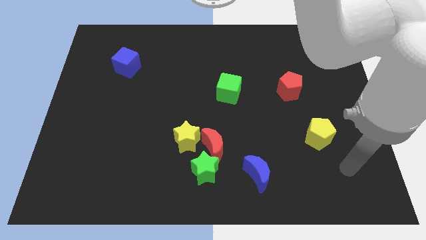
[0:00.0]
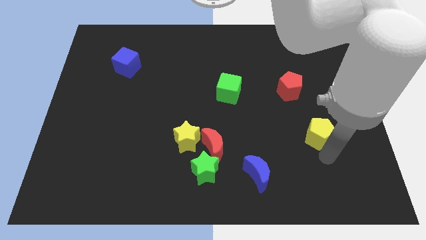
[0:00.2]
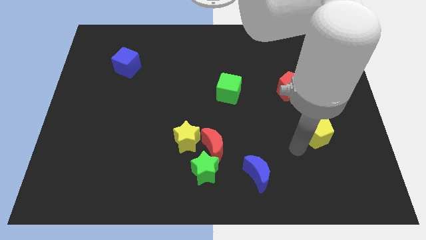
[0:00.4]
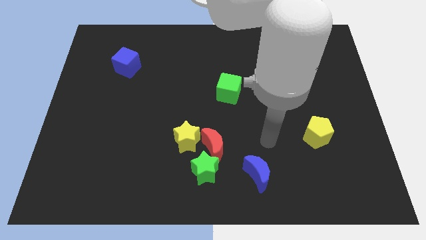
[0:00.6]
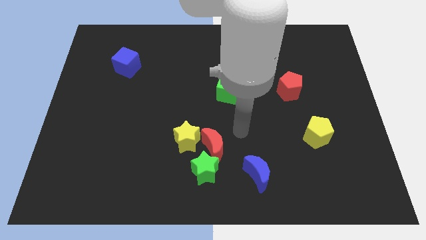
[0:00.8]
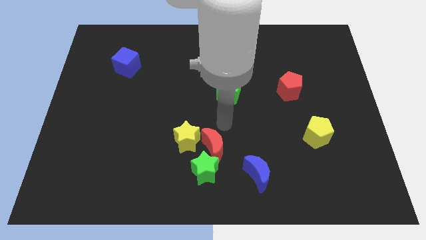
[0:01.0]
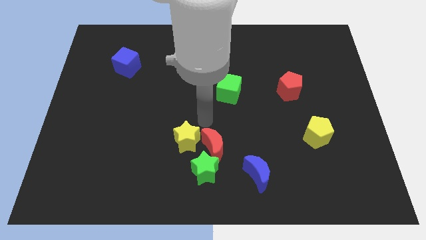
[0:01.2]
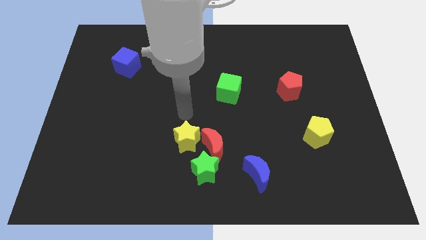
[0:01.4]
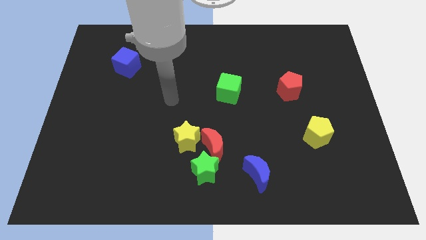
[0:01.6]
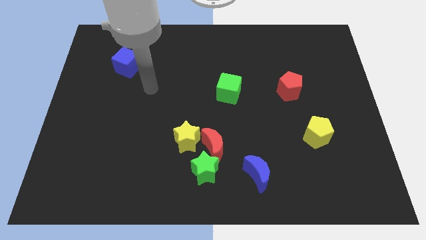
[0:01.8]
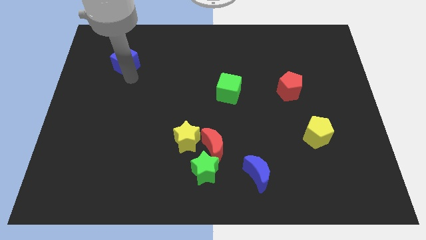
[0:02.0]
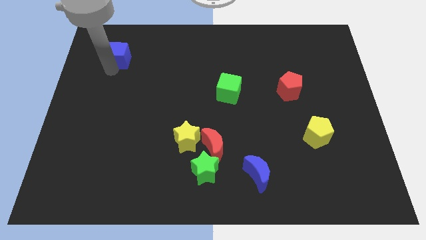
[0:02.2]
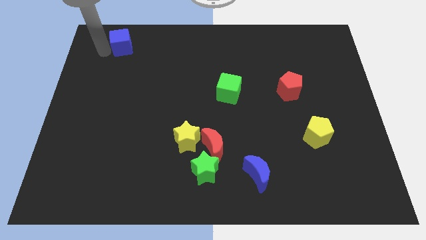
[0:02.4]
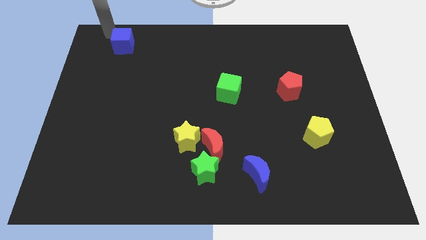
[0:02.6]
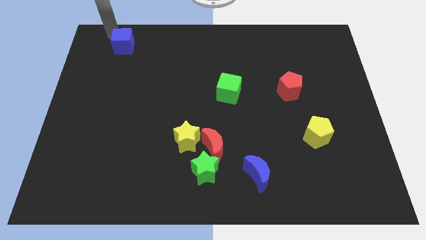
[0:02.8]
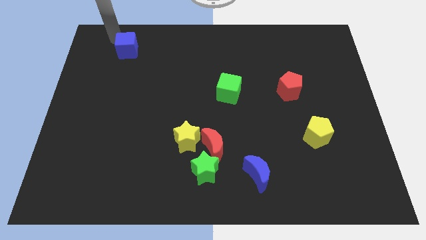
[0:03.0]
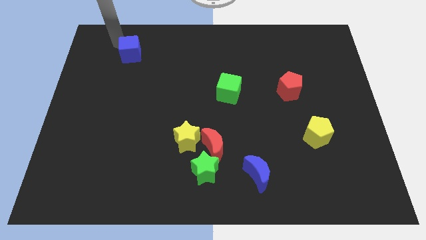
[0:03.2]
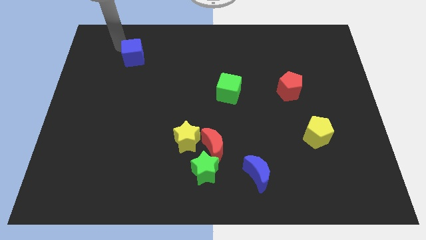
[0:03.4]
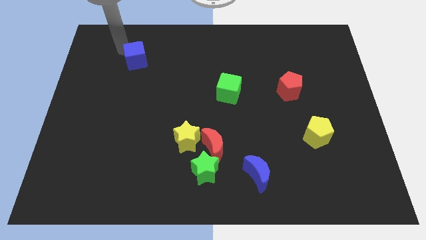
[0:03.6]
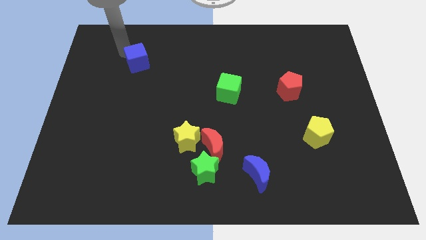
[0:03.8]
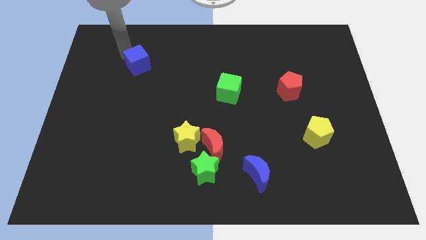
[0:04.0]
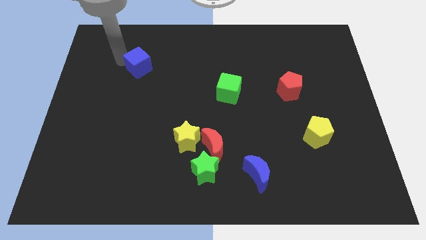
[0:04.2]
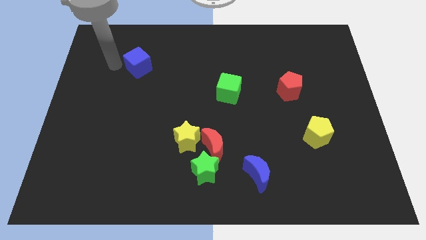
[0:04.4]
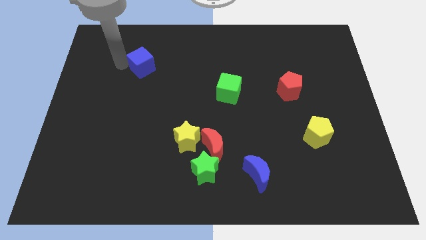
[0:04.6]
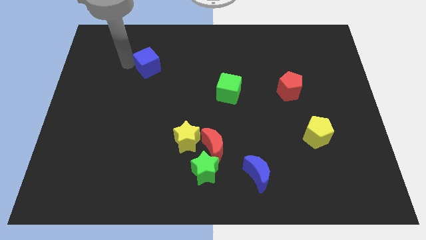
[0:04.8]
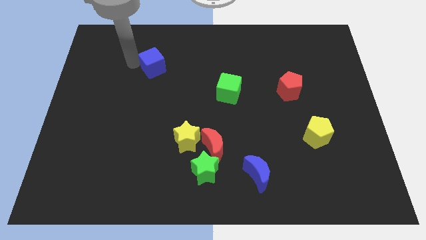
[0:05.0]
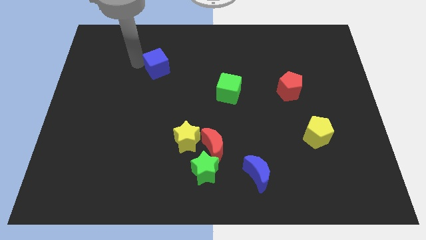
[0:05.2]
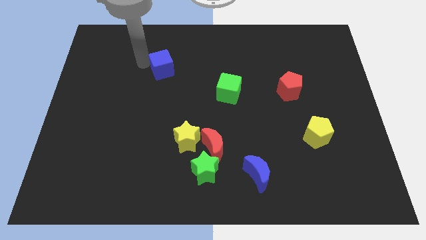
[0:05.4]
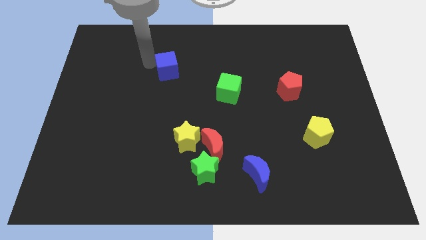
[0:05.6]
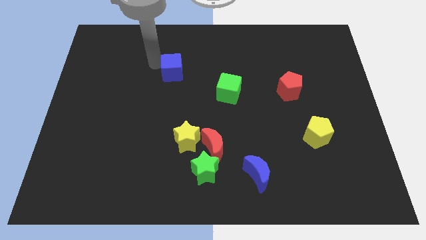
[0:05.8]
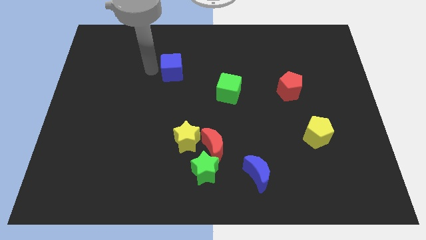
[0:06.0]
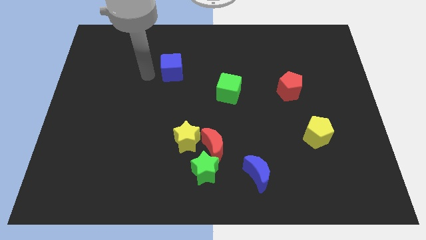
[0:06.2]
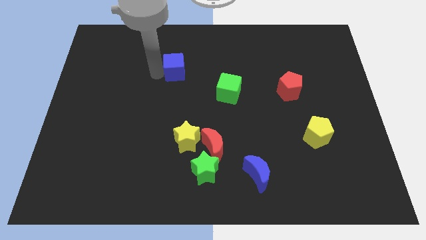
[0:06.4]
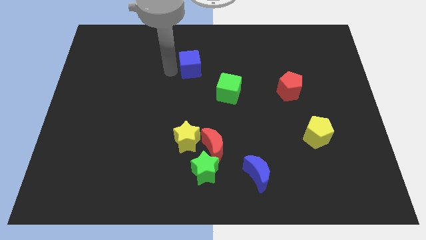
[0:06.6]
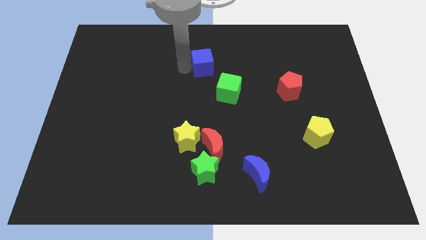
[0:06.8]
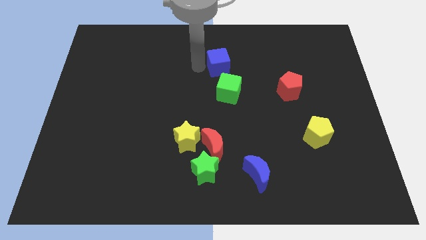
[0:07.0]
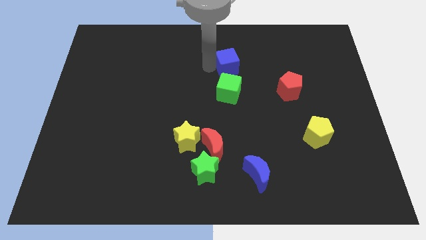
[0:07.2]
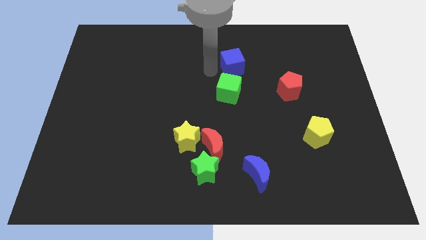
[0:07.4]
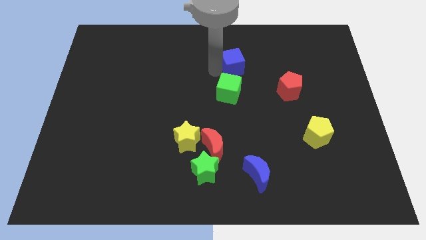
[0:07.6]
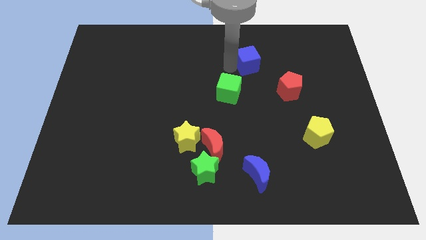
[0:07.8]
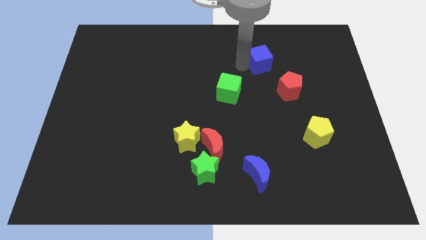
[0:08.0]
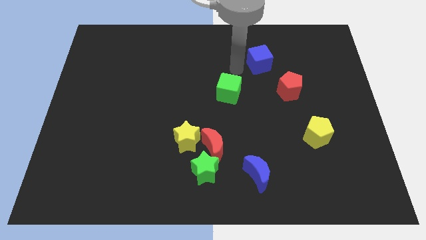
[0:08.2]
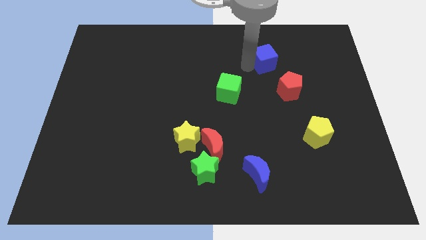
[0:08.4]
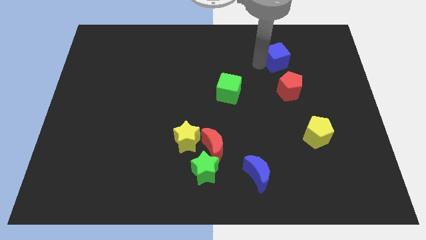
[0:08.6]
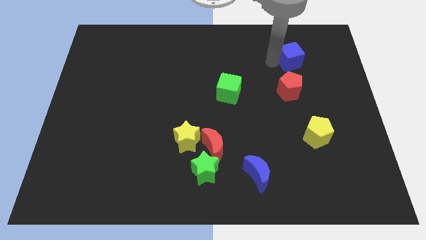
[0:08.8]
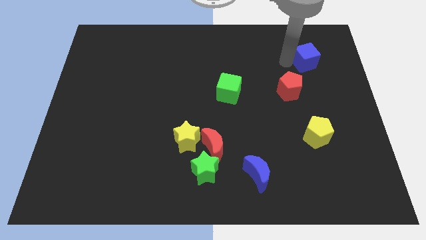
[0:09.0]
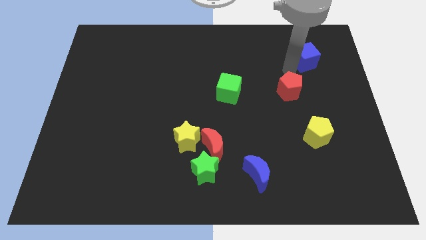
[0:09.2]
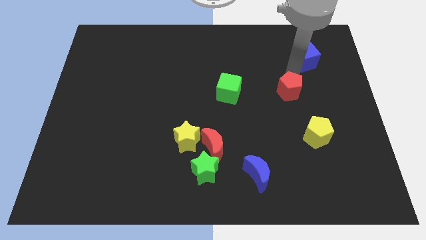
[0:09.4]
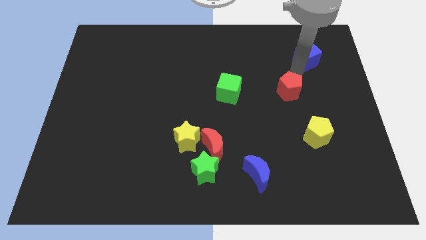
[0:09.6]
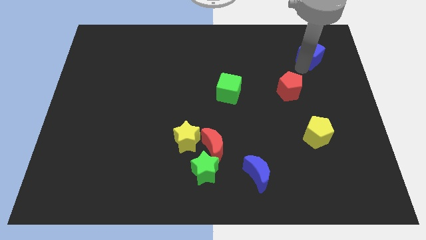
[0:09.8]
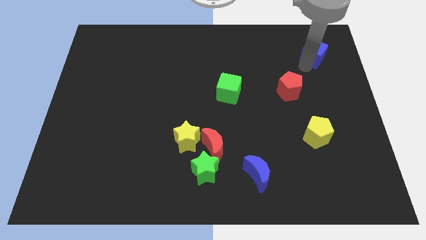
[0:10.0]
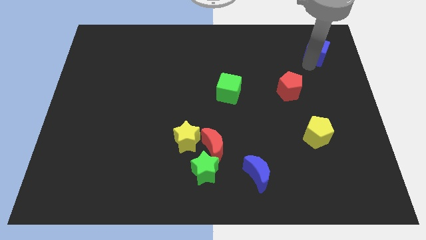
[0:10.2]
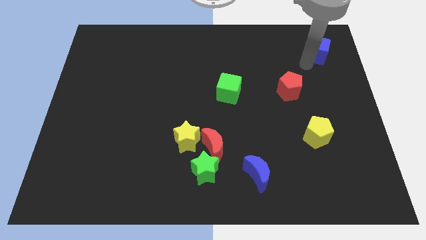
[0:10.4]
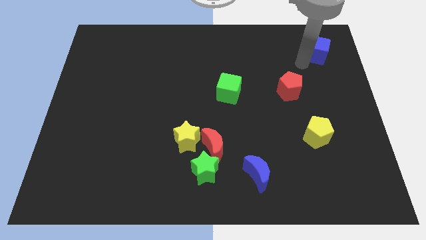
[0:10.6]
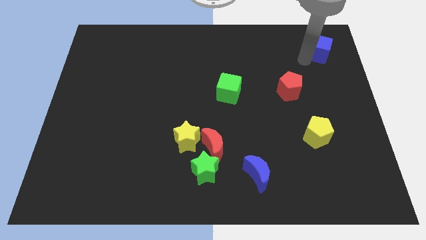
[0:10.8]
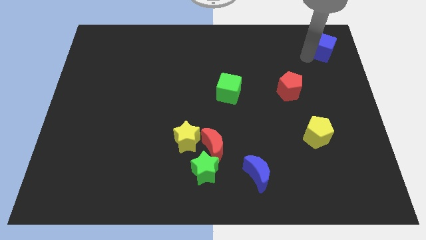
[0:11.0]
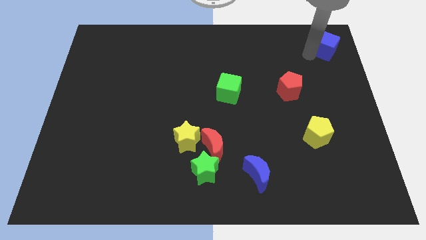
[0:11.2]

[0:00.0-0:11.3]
slide the blue cube to the top right
